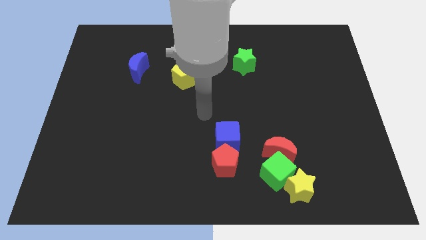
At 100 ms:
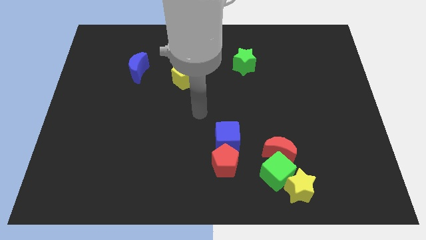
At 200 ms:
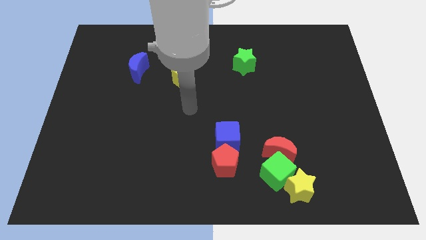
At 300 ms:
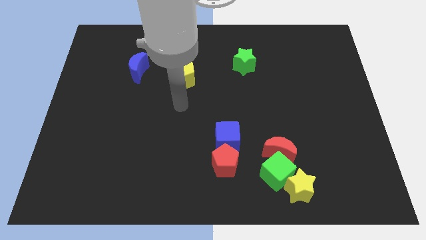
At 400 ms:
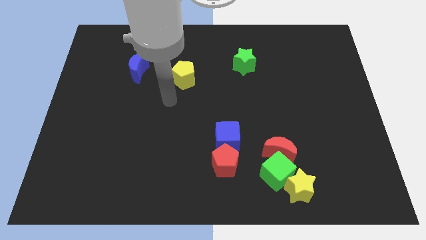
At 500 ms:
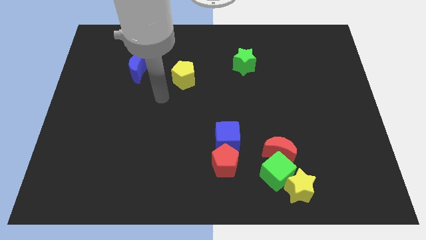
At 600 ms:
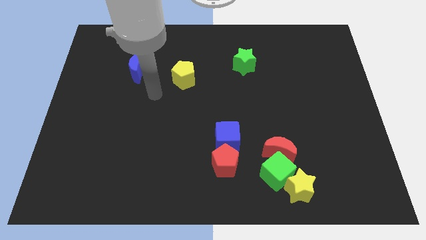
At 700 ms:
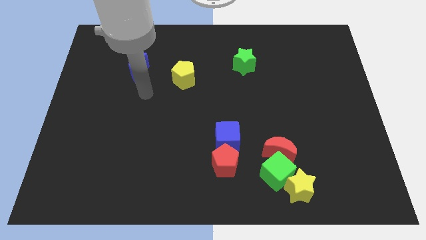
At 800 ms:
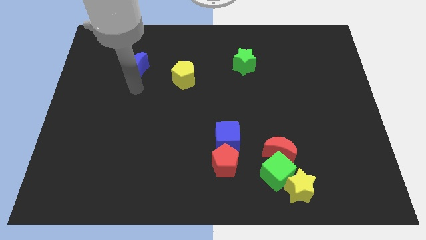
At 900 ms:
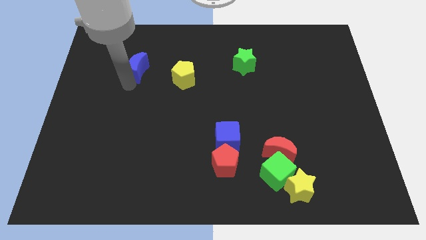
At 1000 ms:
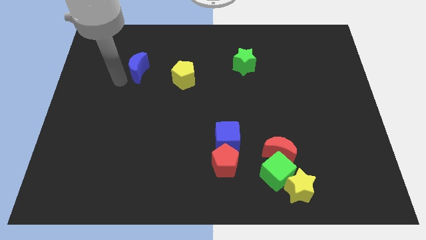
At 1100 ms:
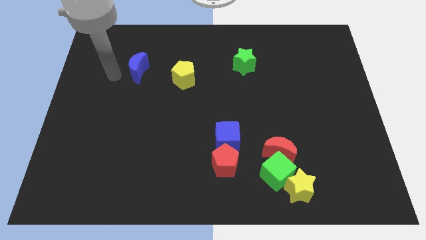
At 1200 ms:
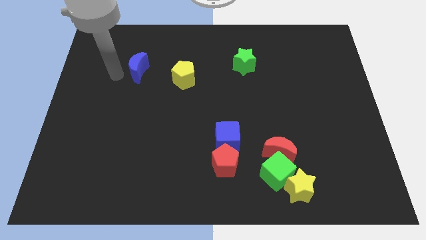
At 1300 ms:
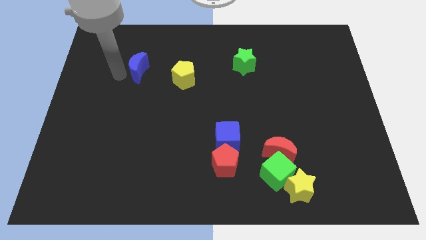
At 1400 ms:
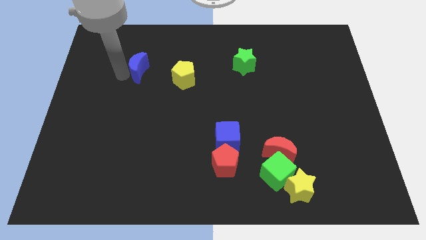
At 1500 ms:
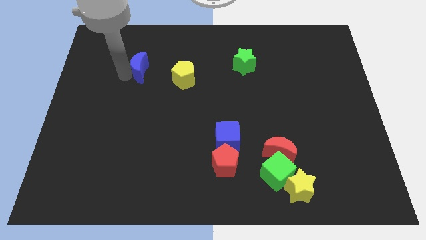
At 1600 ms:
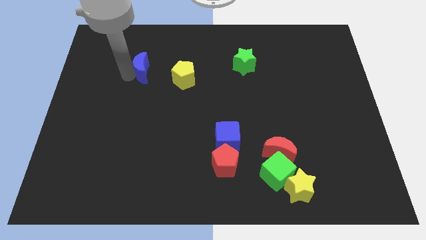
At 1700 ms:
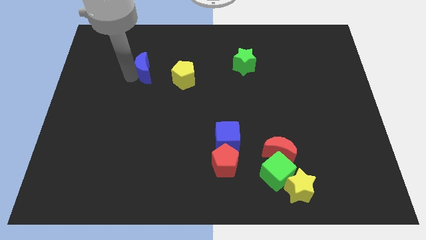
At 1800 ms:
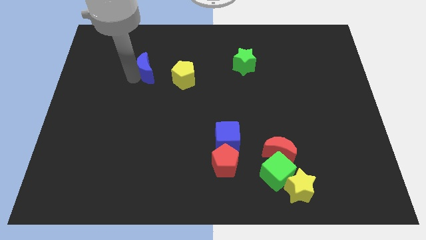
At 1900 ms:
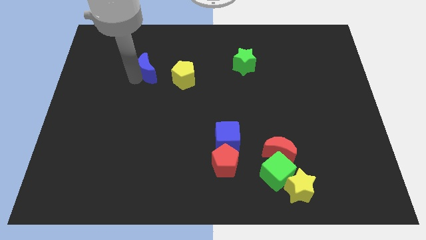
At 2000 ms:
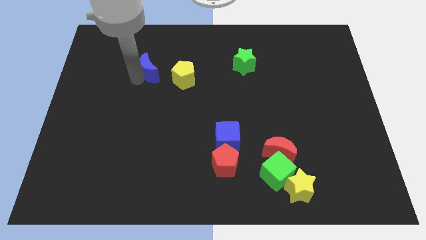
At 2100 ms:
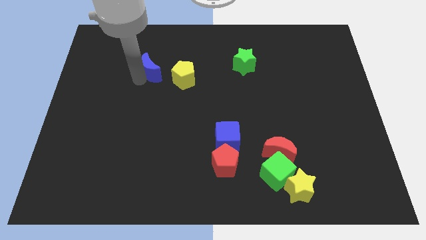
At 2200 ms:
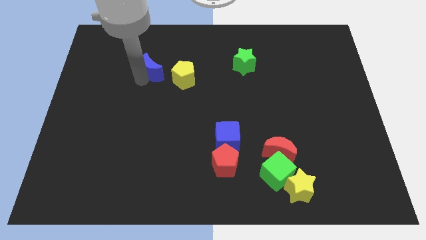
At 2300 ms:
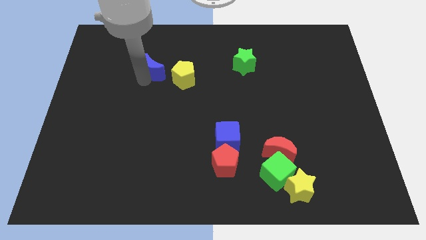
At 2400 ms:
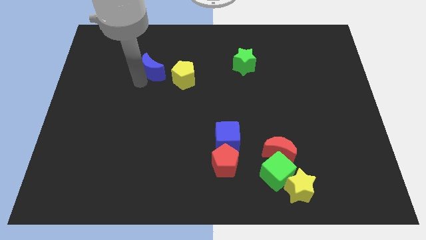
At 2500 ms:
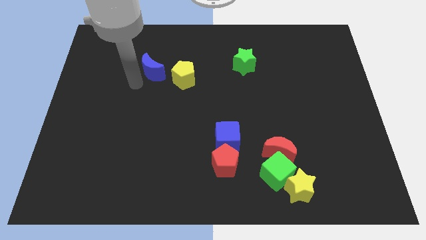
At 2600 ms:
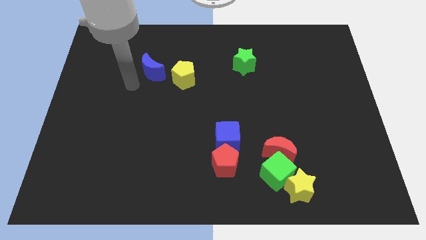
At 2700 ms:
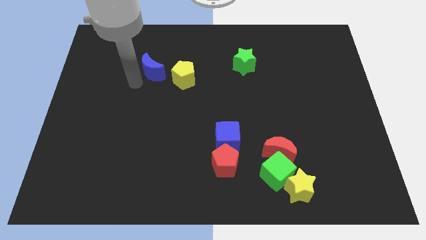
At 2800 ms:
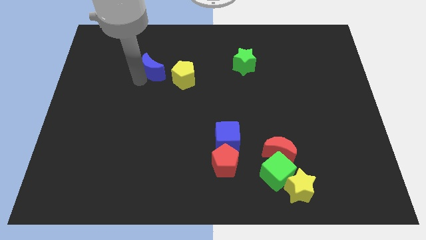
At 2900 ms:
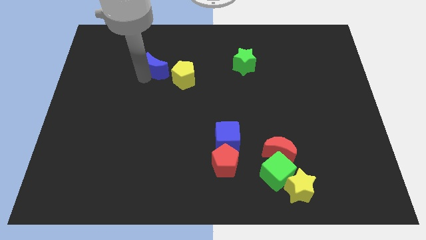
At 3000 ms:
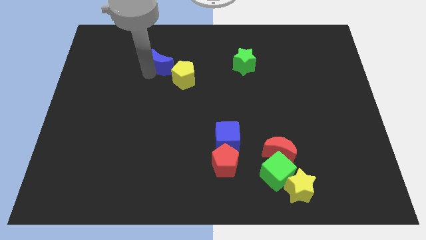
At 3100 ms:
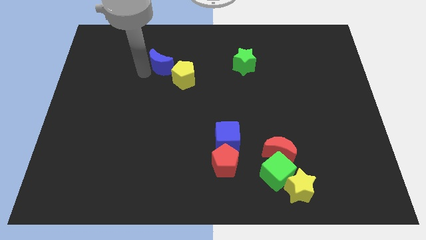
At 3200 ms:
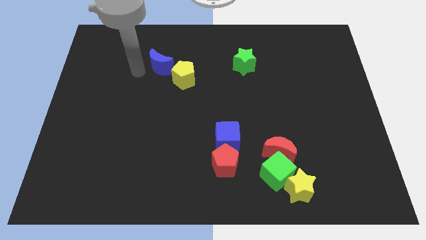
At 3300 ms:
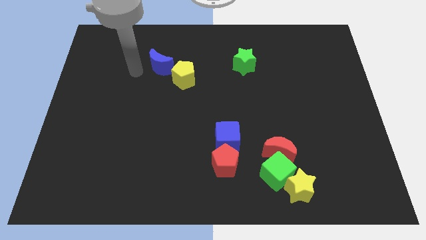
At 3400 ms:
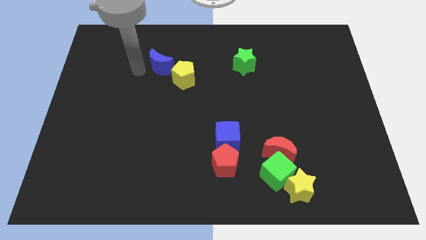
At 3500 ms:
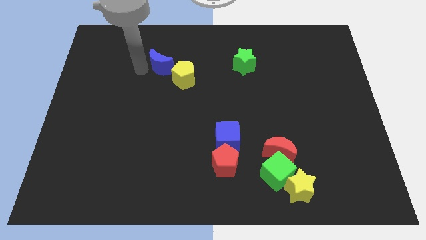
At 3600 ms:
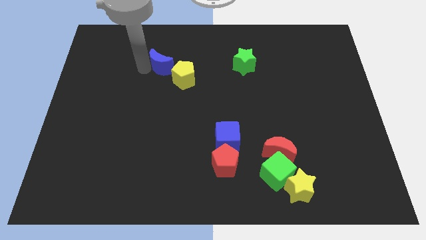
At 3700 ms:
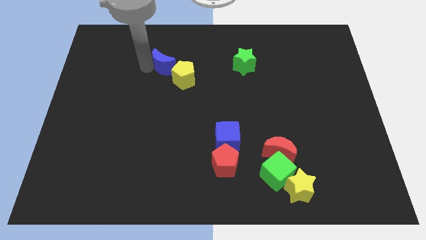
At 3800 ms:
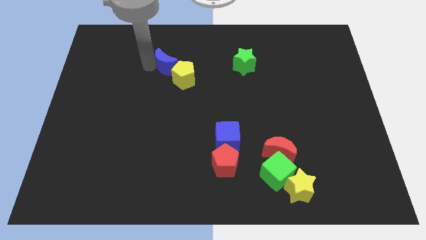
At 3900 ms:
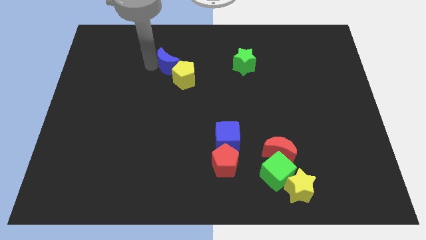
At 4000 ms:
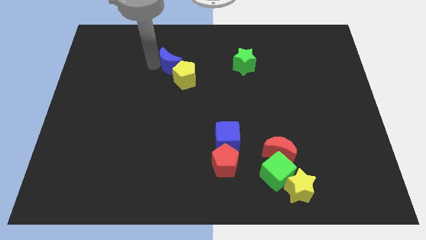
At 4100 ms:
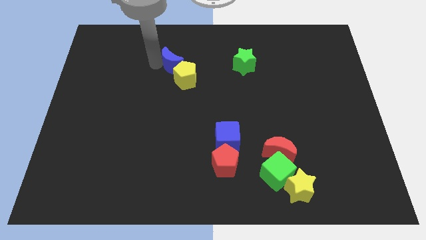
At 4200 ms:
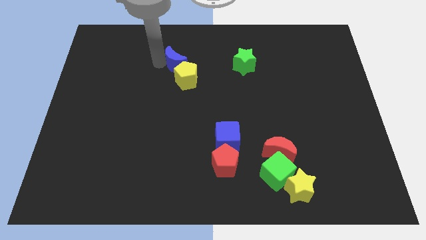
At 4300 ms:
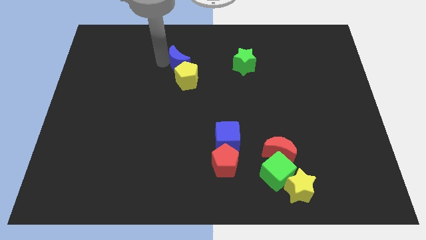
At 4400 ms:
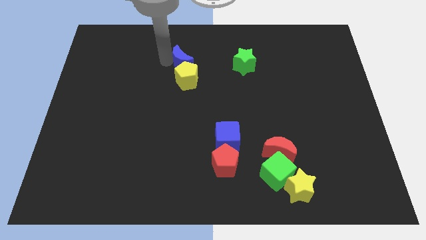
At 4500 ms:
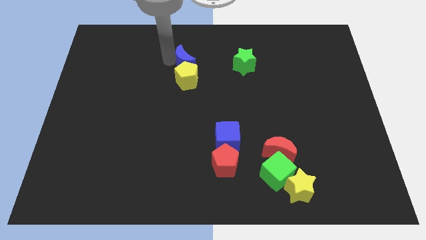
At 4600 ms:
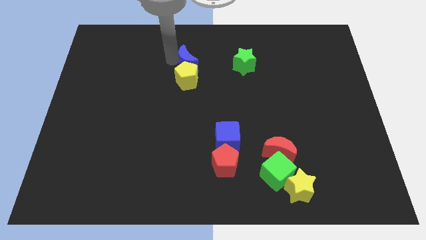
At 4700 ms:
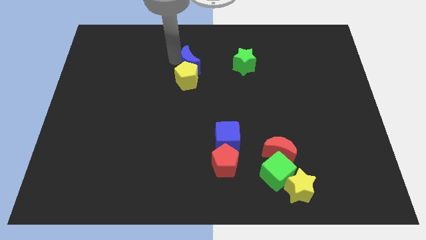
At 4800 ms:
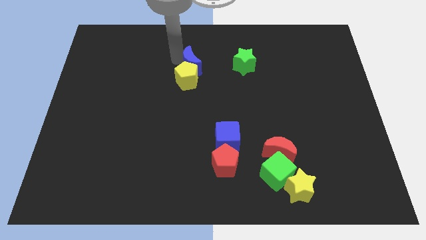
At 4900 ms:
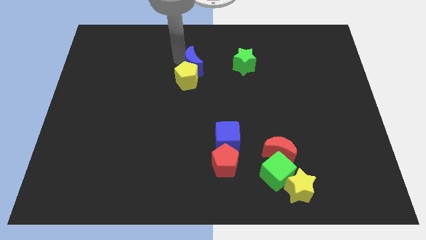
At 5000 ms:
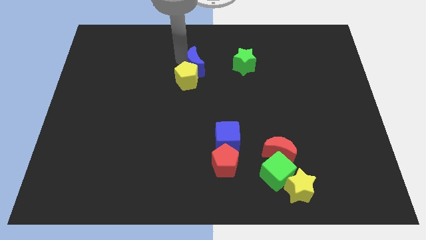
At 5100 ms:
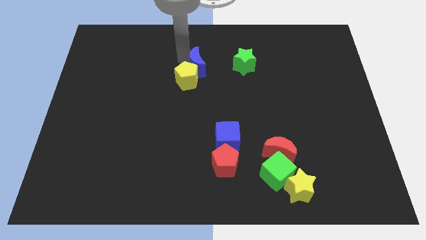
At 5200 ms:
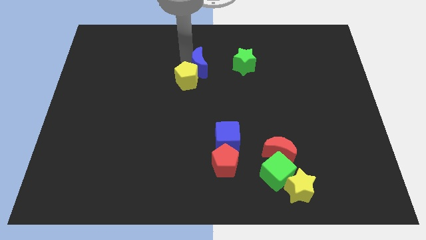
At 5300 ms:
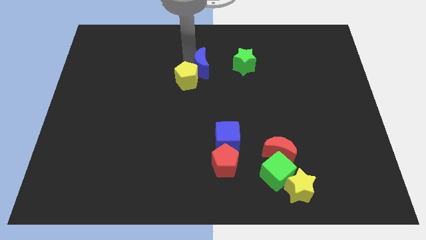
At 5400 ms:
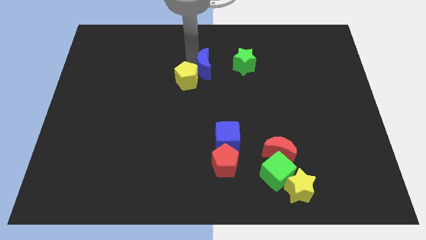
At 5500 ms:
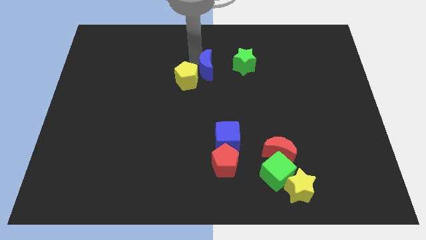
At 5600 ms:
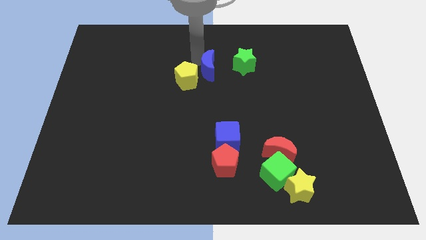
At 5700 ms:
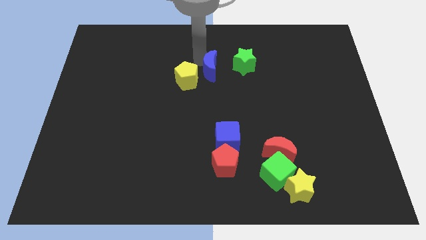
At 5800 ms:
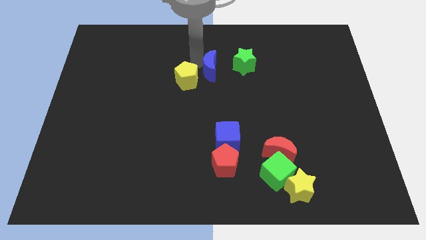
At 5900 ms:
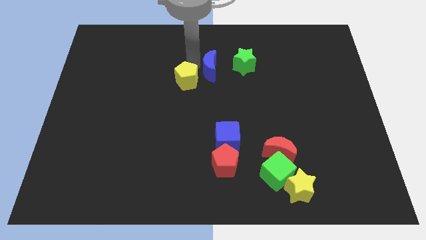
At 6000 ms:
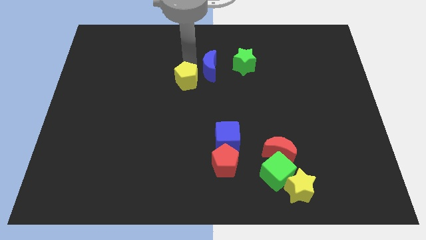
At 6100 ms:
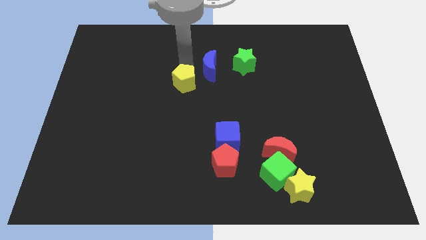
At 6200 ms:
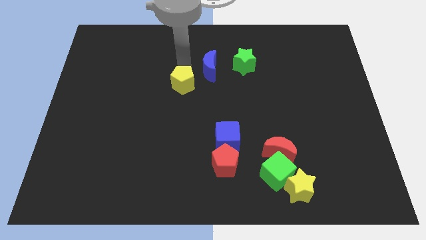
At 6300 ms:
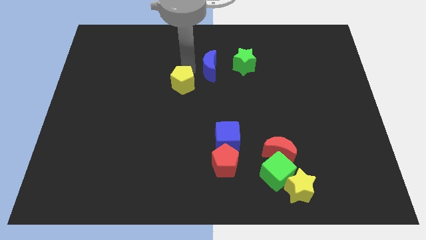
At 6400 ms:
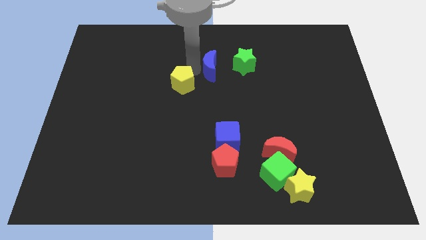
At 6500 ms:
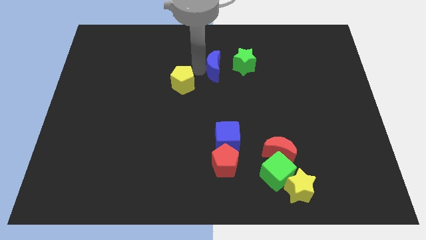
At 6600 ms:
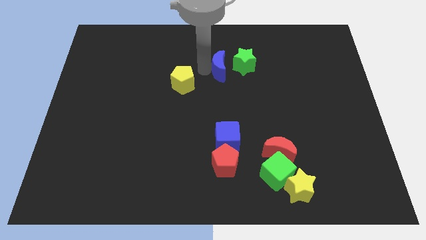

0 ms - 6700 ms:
push the blue moon right

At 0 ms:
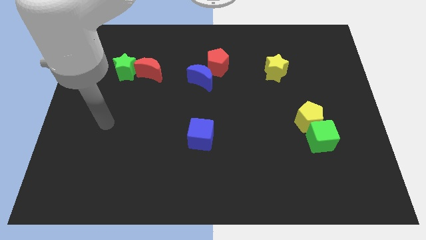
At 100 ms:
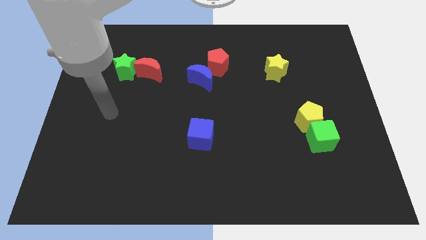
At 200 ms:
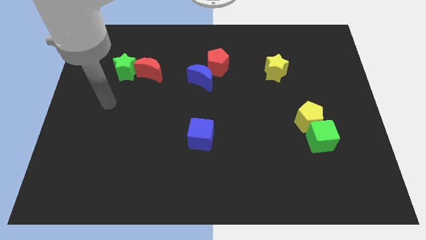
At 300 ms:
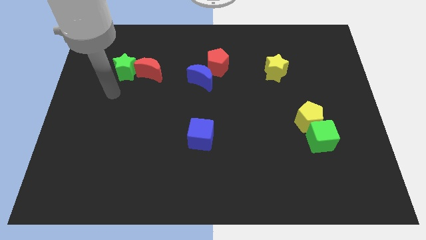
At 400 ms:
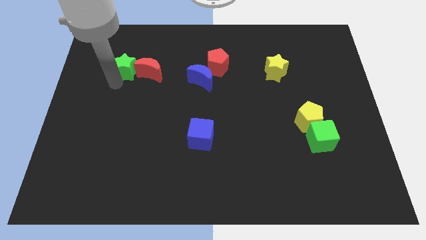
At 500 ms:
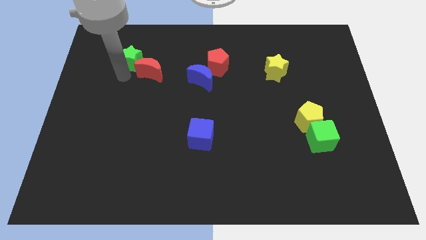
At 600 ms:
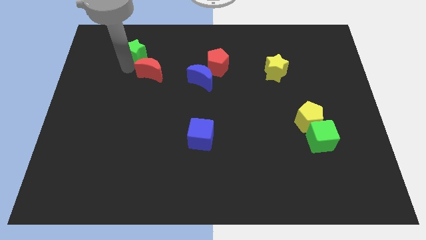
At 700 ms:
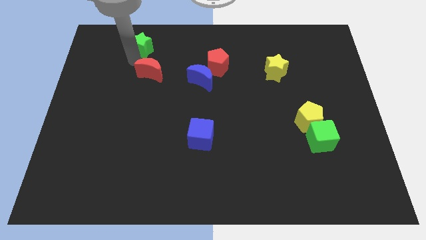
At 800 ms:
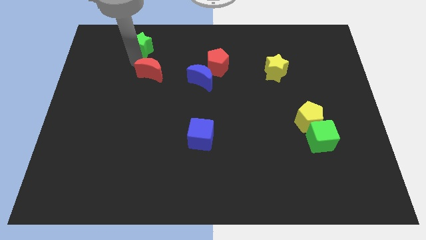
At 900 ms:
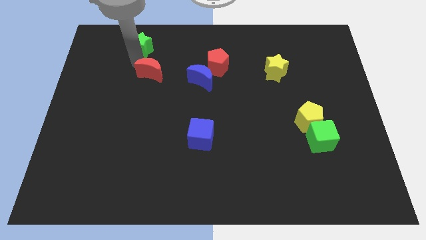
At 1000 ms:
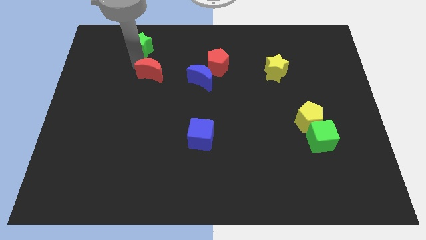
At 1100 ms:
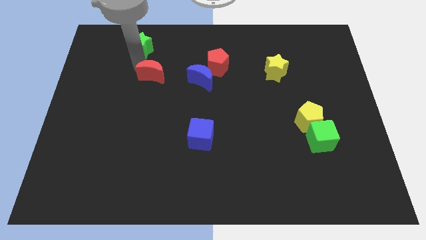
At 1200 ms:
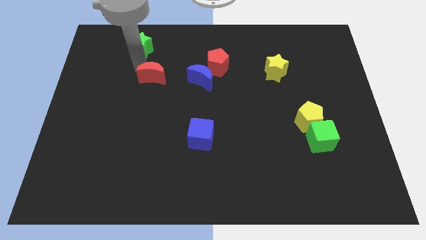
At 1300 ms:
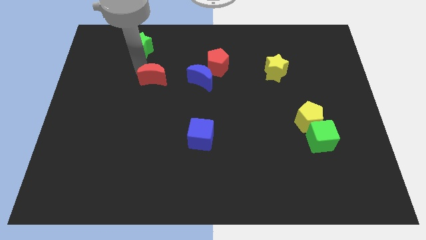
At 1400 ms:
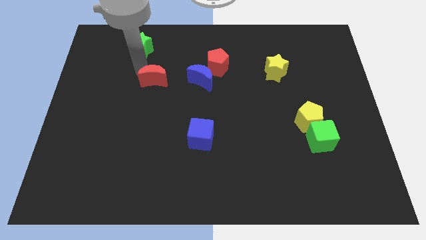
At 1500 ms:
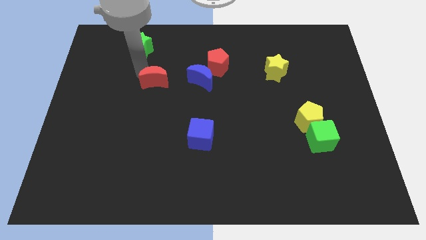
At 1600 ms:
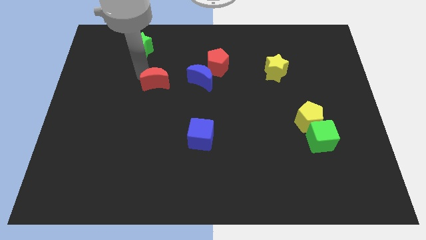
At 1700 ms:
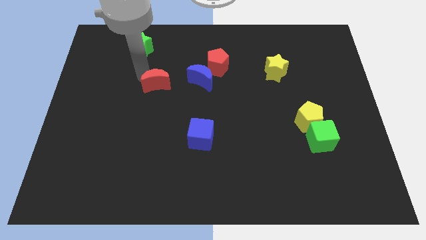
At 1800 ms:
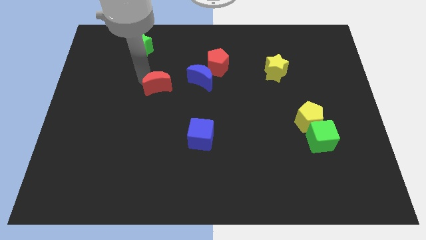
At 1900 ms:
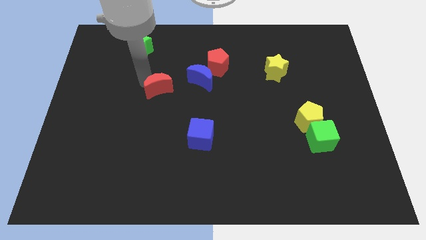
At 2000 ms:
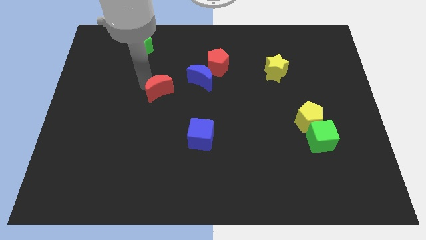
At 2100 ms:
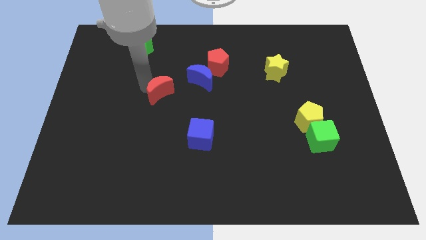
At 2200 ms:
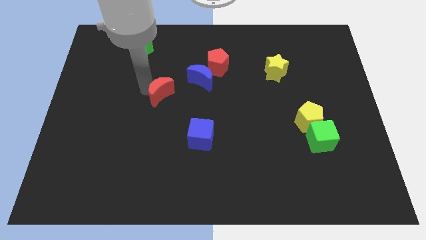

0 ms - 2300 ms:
slide the red moon down and right a little
